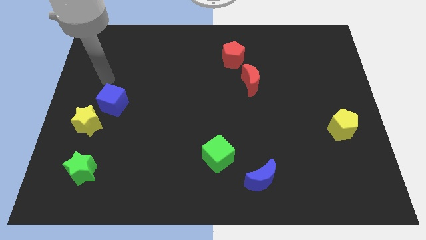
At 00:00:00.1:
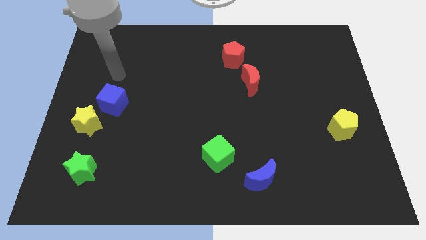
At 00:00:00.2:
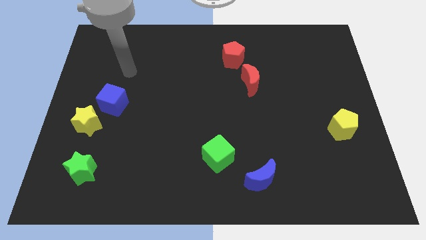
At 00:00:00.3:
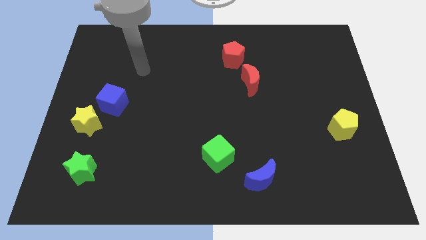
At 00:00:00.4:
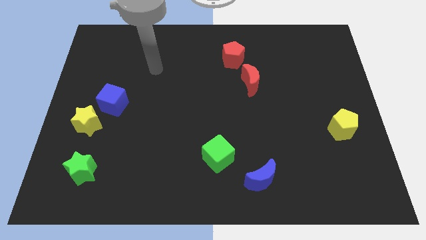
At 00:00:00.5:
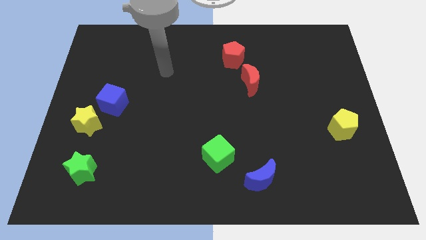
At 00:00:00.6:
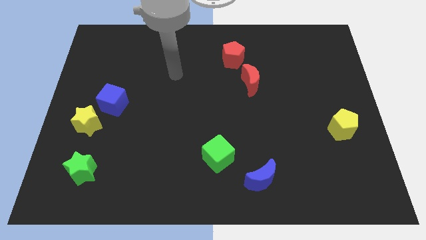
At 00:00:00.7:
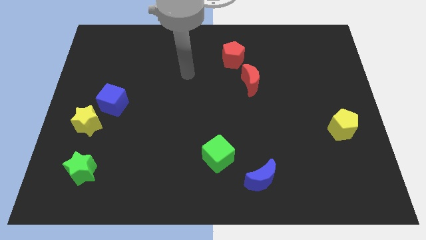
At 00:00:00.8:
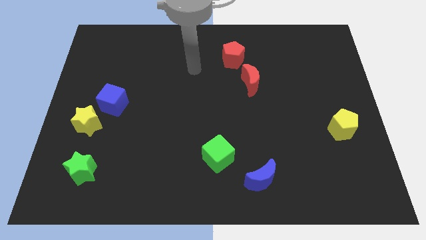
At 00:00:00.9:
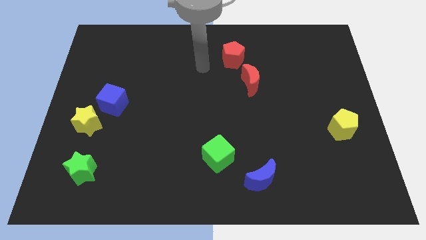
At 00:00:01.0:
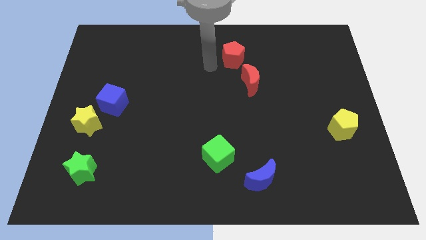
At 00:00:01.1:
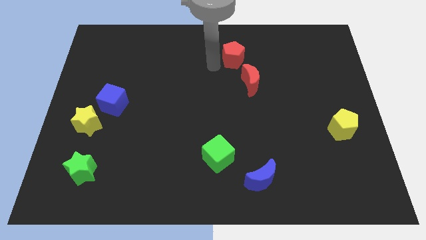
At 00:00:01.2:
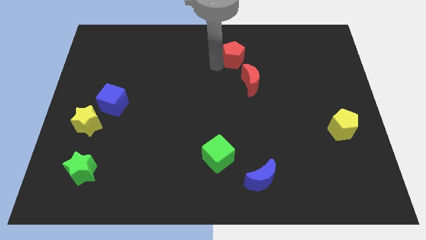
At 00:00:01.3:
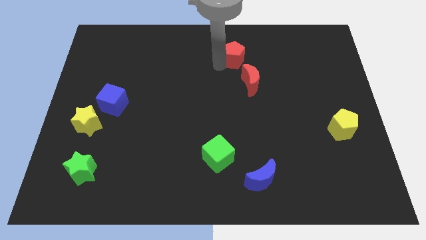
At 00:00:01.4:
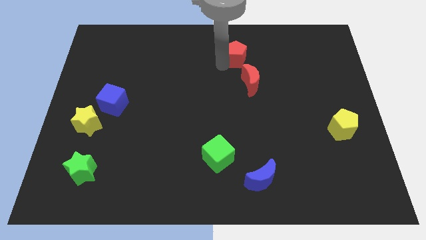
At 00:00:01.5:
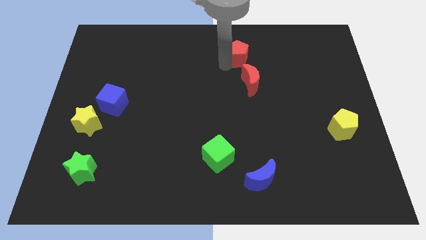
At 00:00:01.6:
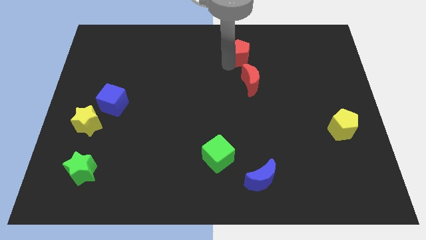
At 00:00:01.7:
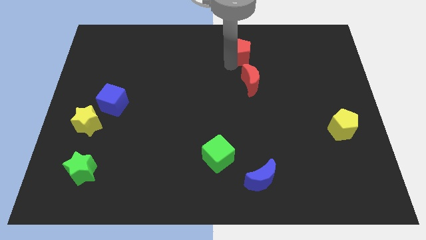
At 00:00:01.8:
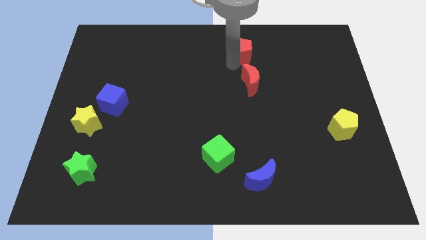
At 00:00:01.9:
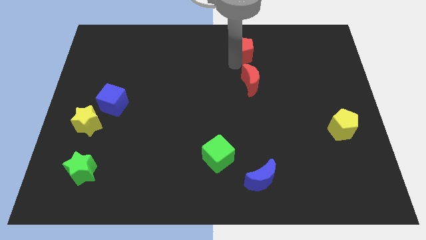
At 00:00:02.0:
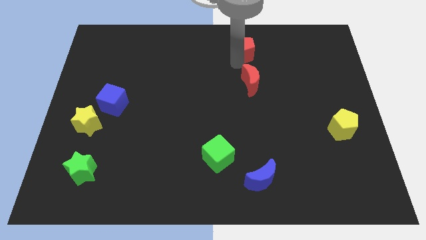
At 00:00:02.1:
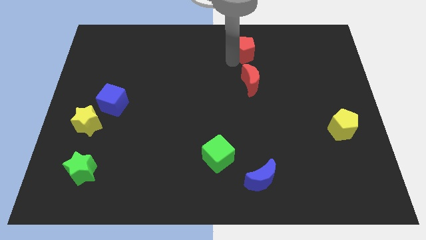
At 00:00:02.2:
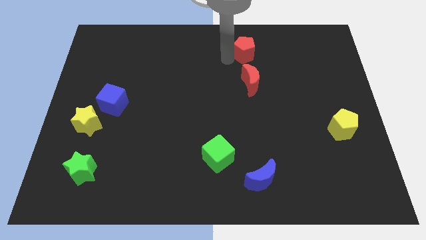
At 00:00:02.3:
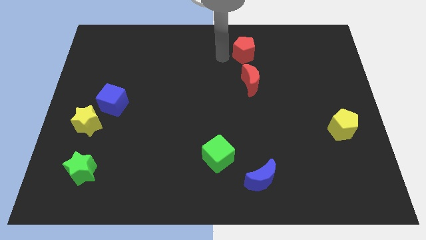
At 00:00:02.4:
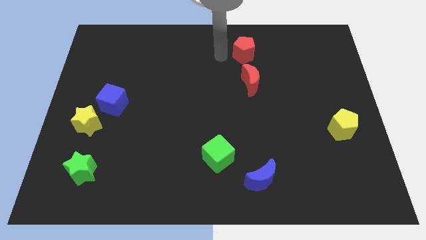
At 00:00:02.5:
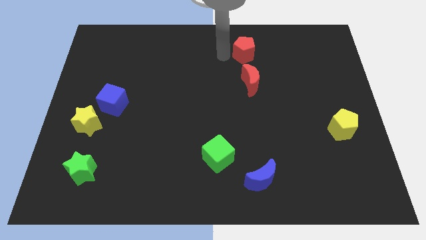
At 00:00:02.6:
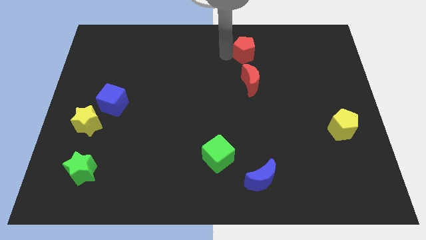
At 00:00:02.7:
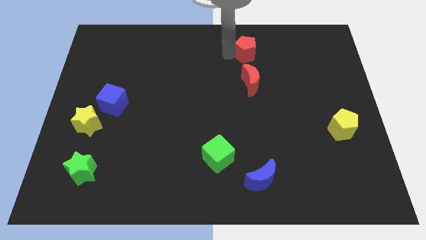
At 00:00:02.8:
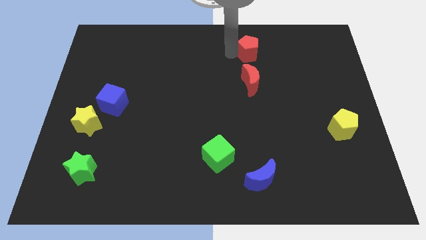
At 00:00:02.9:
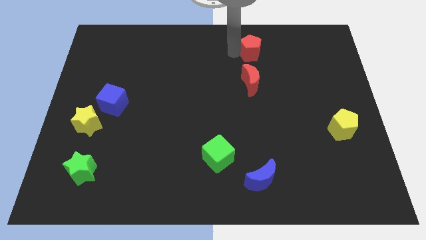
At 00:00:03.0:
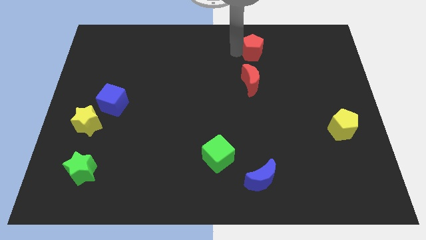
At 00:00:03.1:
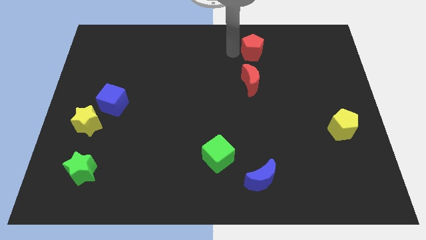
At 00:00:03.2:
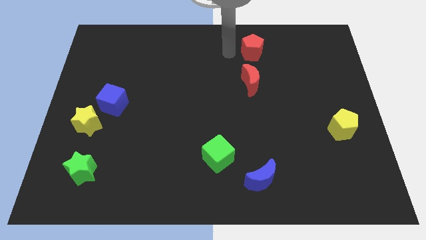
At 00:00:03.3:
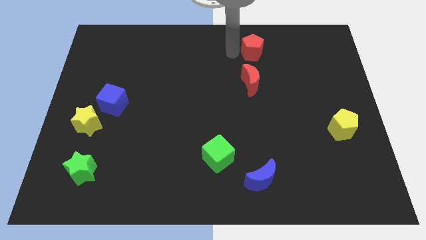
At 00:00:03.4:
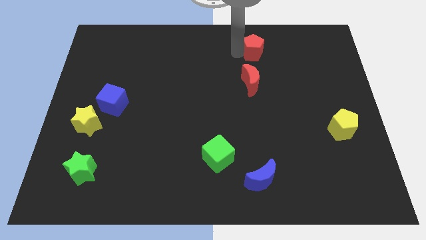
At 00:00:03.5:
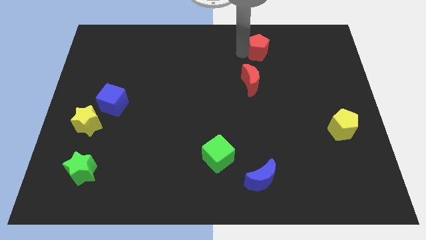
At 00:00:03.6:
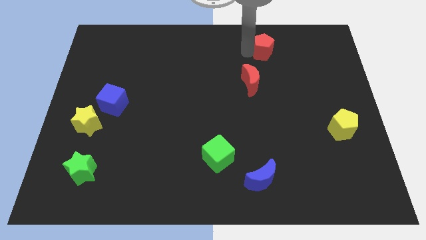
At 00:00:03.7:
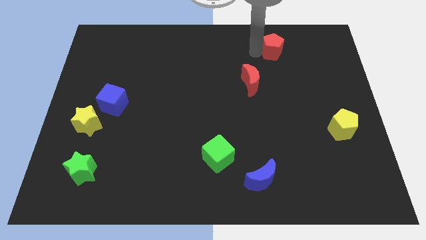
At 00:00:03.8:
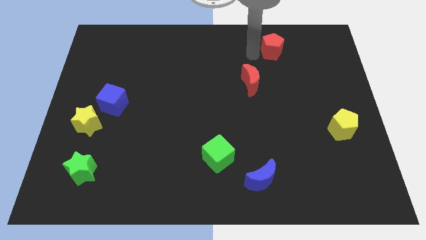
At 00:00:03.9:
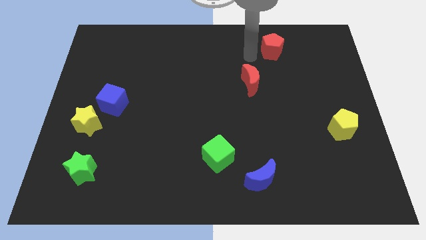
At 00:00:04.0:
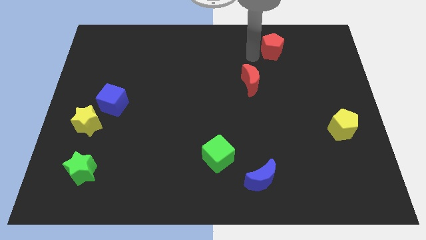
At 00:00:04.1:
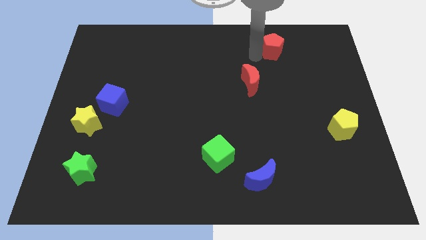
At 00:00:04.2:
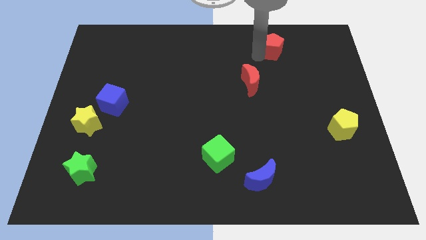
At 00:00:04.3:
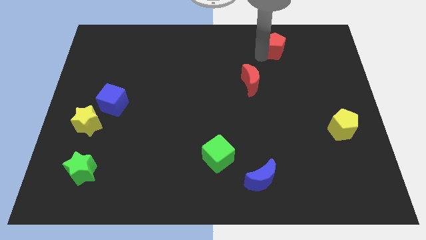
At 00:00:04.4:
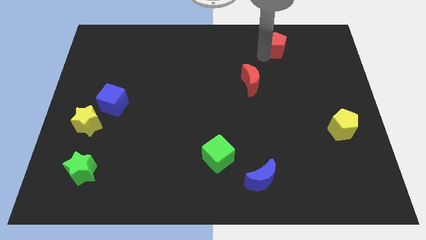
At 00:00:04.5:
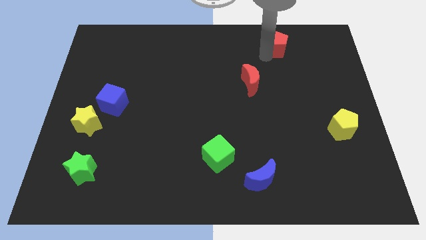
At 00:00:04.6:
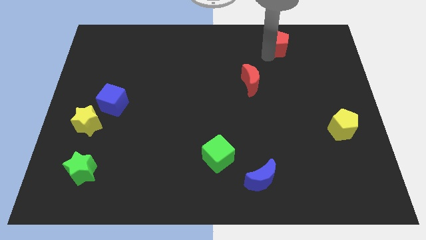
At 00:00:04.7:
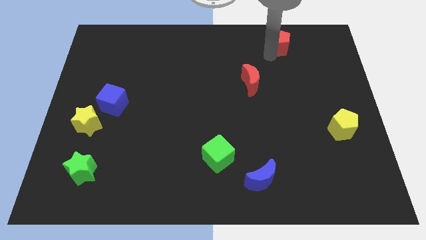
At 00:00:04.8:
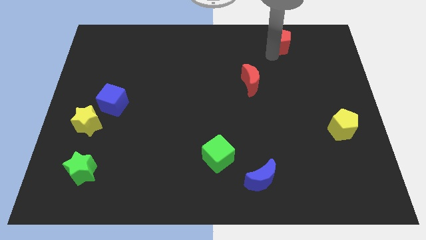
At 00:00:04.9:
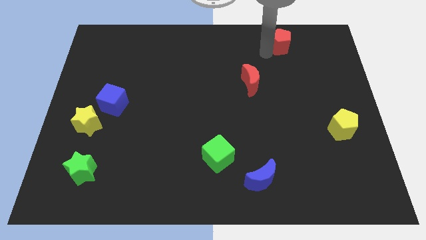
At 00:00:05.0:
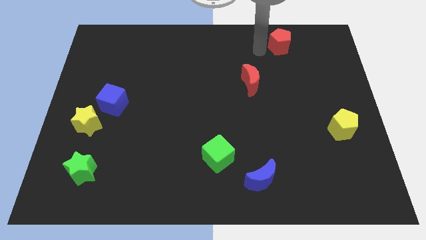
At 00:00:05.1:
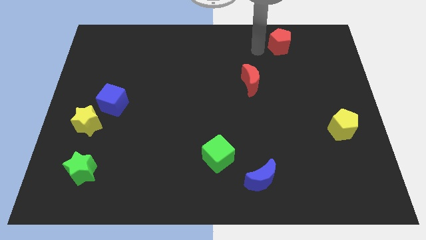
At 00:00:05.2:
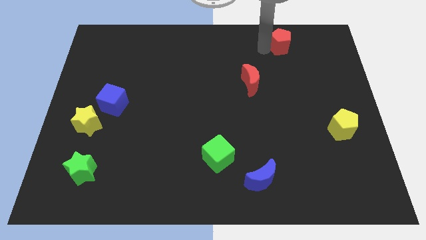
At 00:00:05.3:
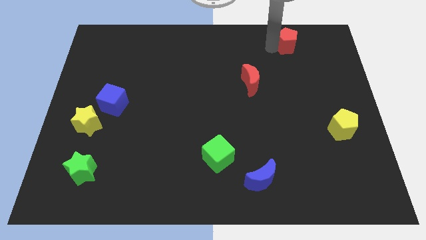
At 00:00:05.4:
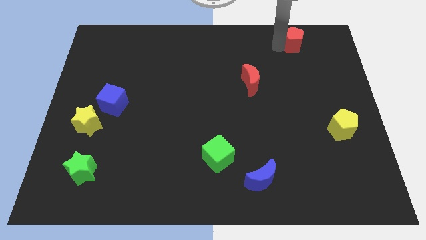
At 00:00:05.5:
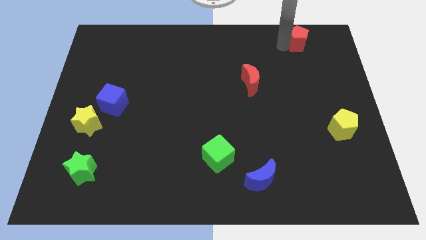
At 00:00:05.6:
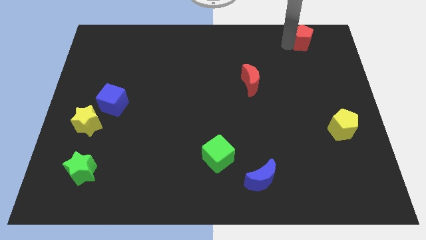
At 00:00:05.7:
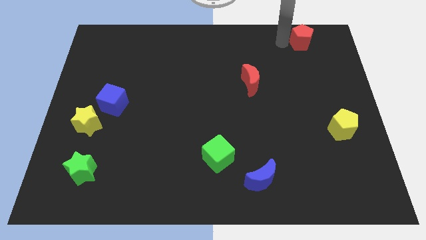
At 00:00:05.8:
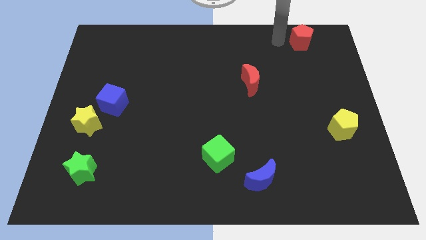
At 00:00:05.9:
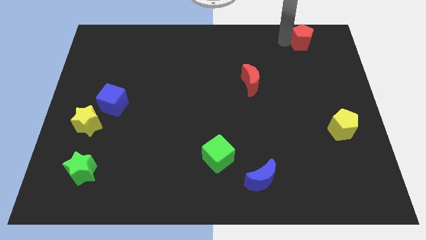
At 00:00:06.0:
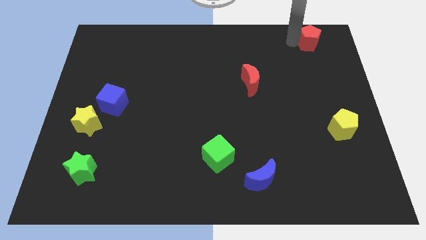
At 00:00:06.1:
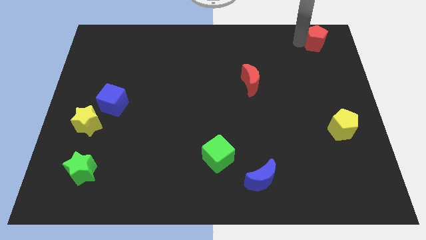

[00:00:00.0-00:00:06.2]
push the red pentagon to the upper right corner
